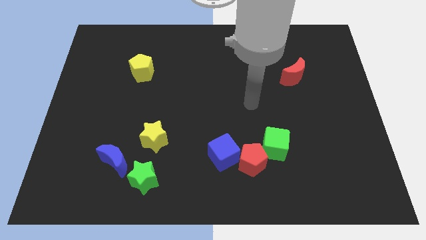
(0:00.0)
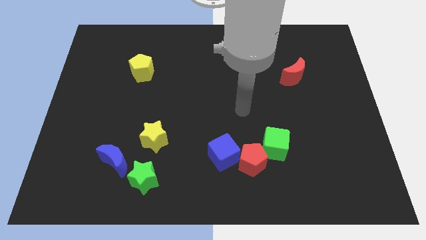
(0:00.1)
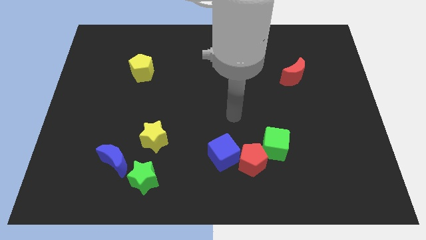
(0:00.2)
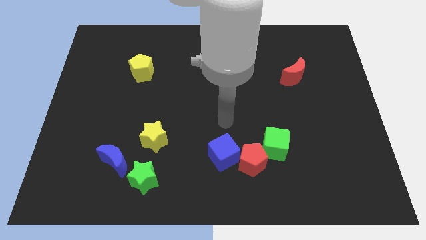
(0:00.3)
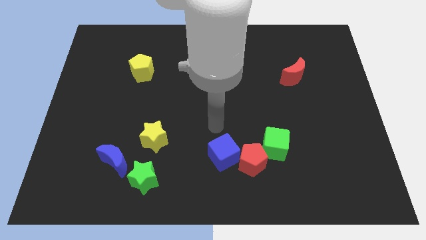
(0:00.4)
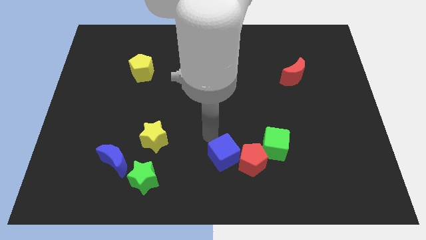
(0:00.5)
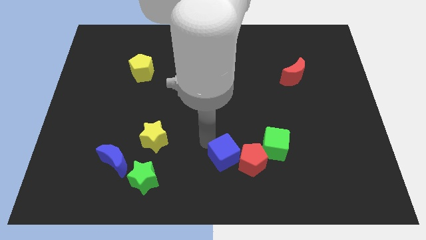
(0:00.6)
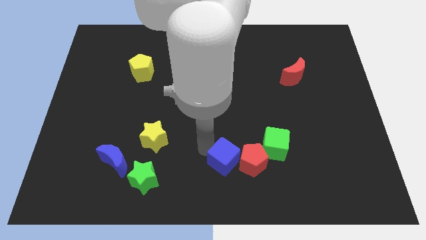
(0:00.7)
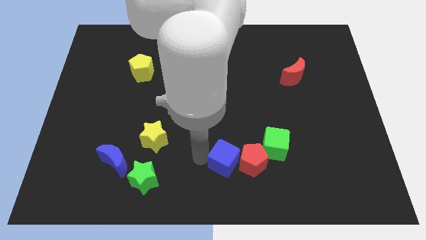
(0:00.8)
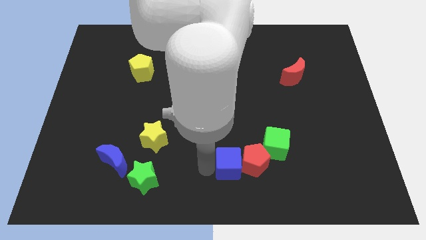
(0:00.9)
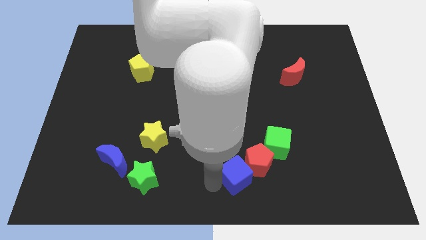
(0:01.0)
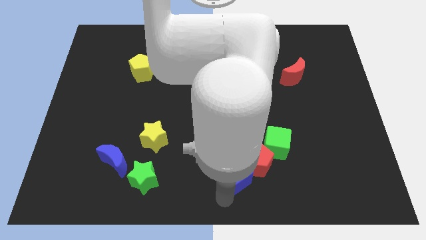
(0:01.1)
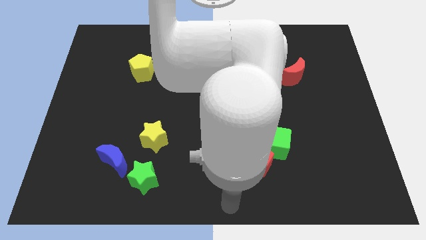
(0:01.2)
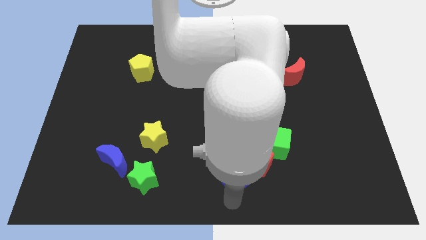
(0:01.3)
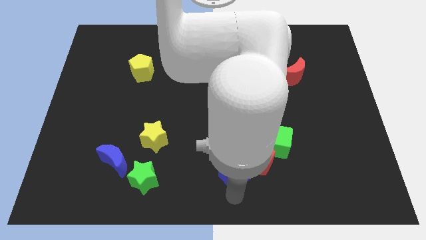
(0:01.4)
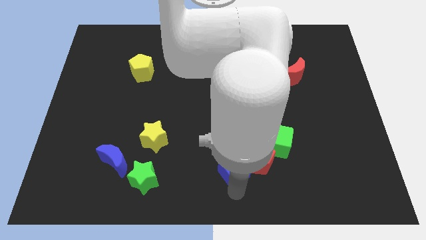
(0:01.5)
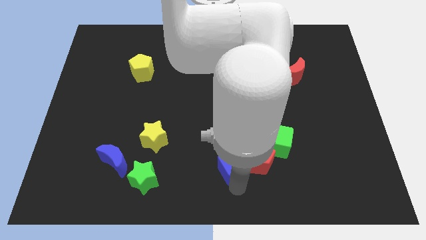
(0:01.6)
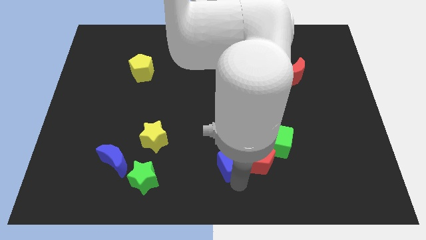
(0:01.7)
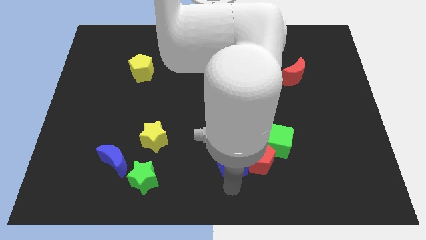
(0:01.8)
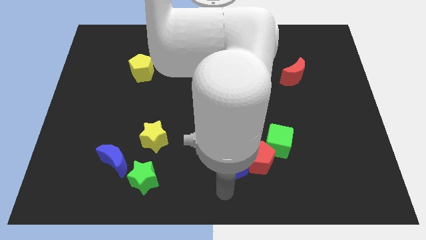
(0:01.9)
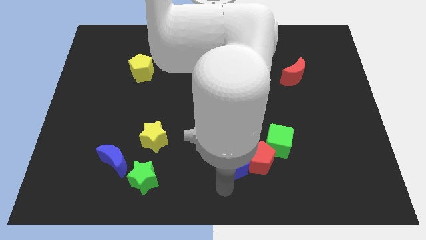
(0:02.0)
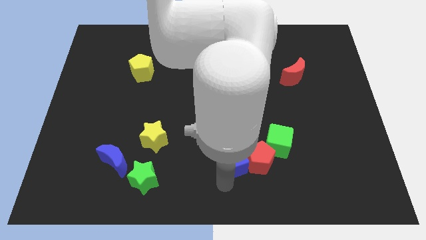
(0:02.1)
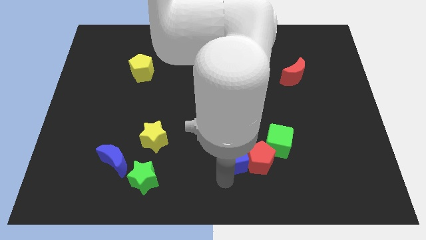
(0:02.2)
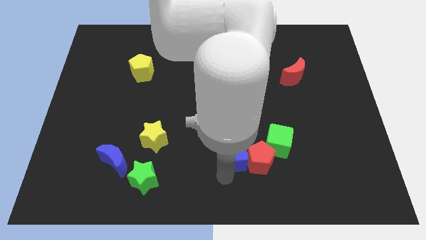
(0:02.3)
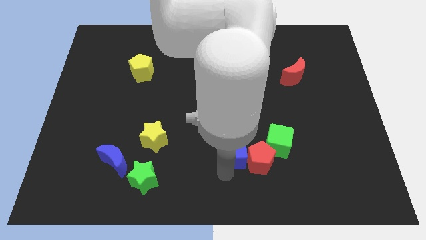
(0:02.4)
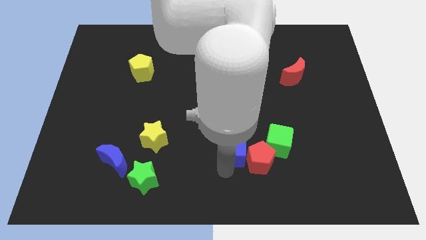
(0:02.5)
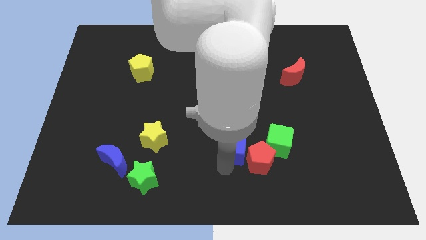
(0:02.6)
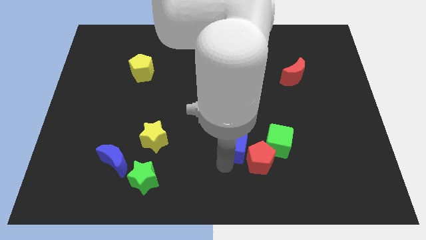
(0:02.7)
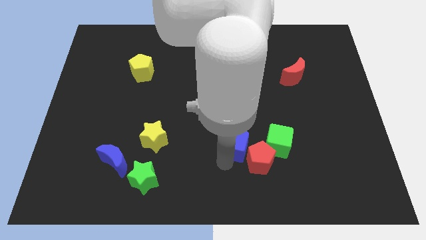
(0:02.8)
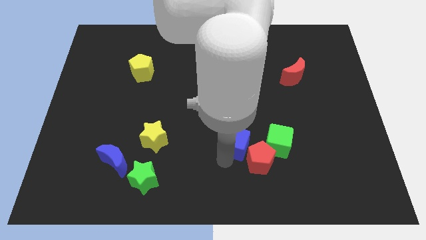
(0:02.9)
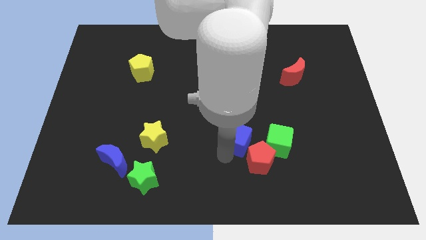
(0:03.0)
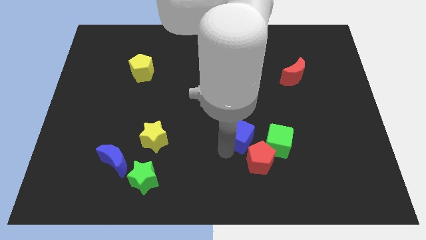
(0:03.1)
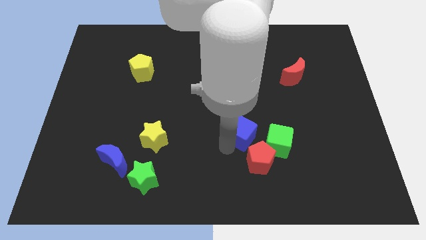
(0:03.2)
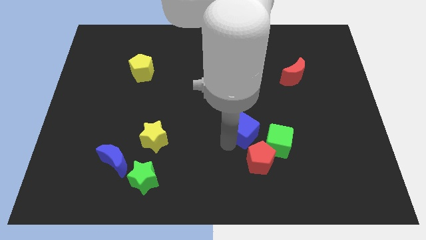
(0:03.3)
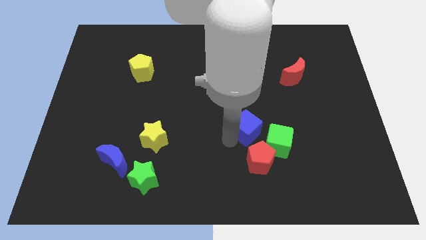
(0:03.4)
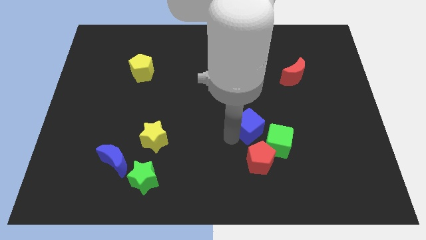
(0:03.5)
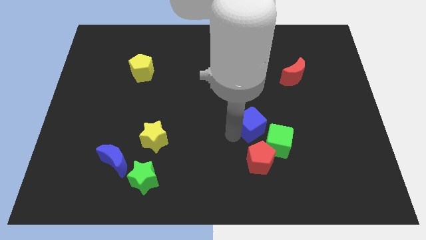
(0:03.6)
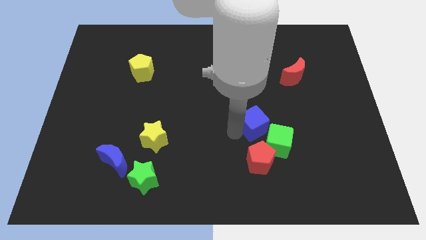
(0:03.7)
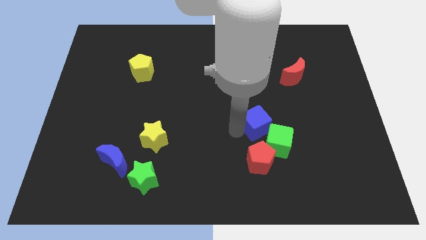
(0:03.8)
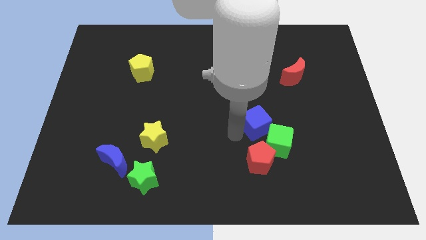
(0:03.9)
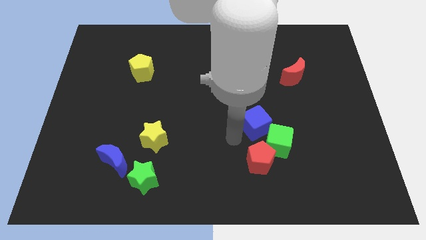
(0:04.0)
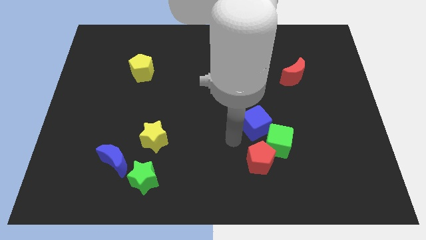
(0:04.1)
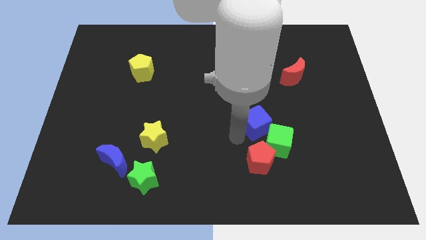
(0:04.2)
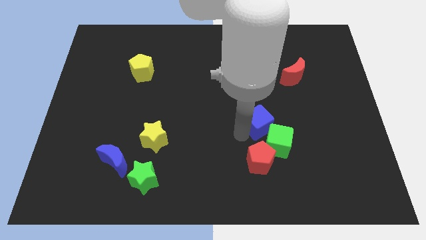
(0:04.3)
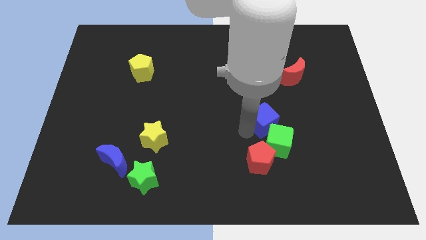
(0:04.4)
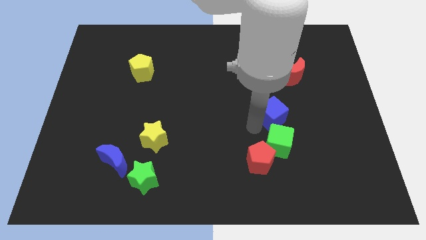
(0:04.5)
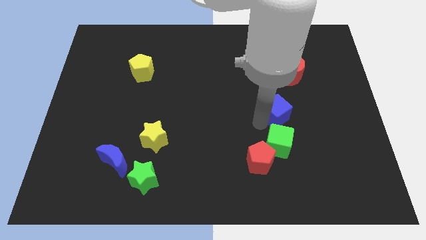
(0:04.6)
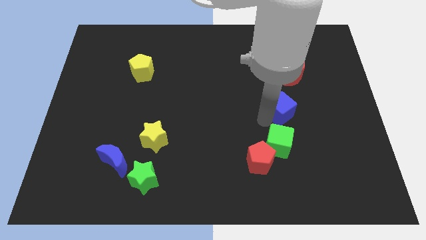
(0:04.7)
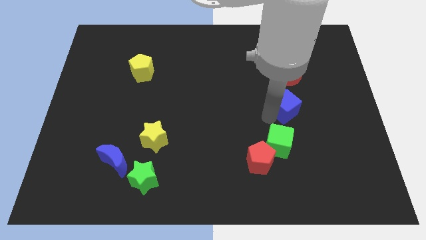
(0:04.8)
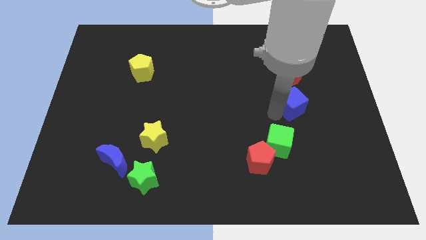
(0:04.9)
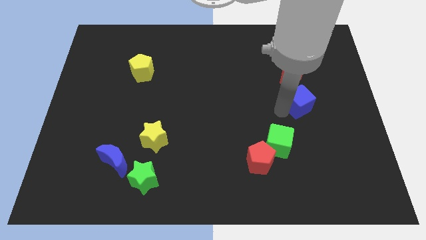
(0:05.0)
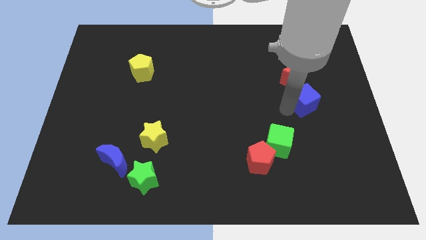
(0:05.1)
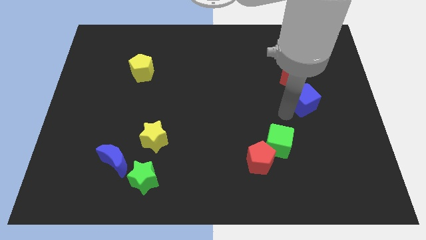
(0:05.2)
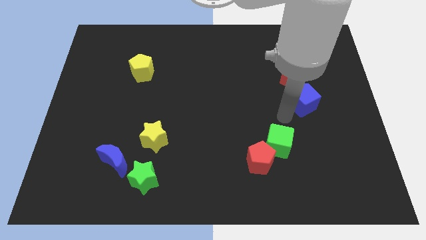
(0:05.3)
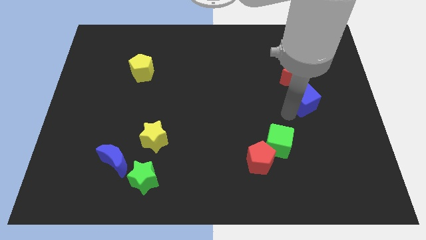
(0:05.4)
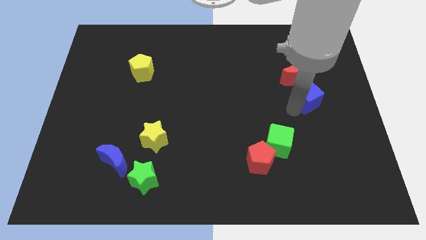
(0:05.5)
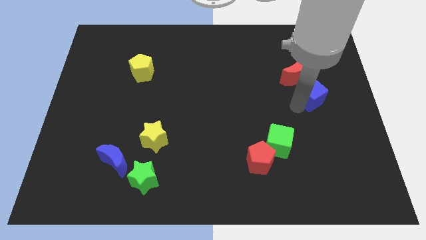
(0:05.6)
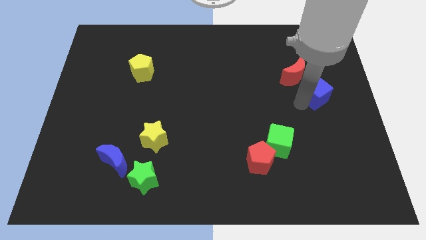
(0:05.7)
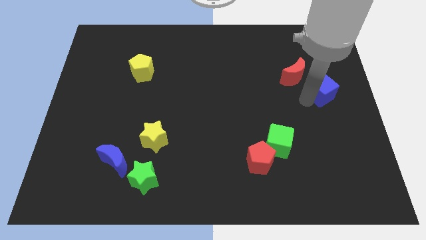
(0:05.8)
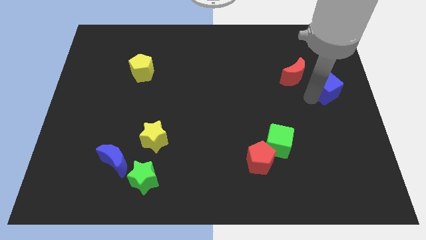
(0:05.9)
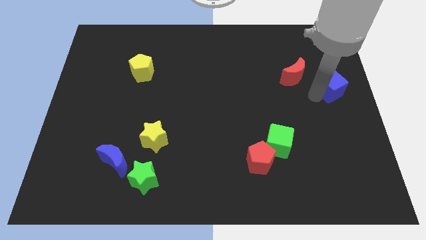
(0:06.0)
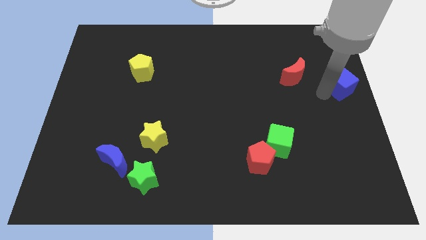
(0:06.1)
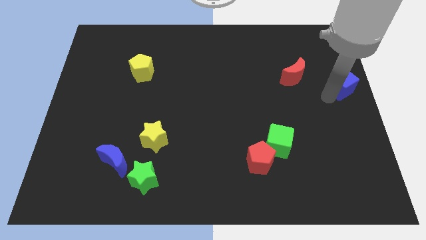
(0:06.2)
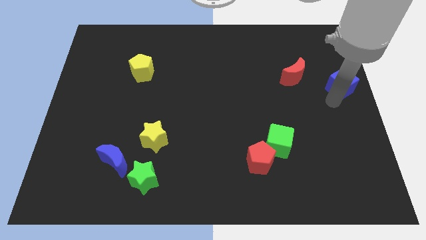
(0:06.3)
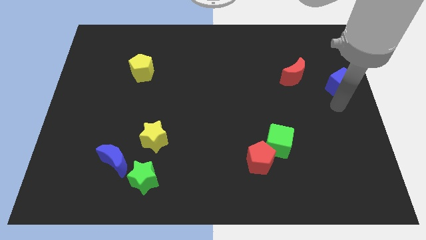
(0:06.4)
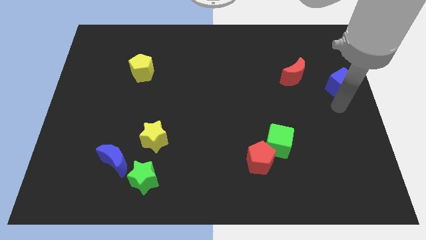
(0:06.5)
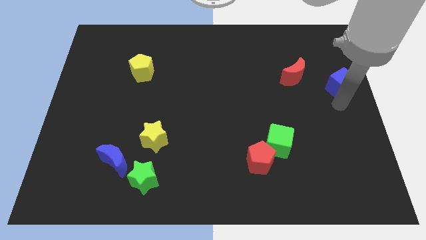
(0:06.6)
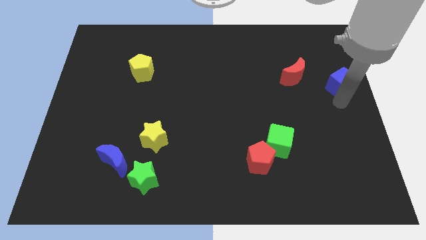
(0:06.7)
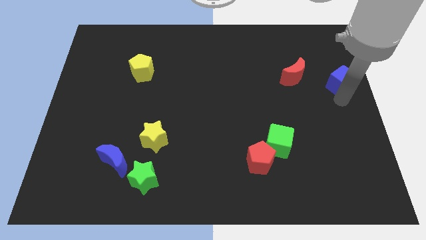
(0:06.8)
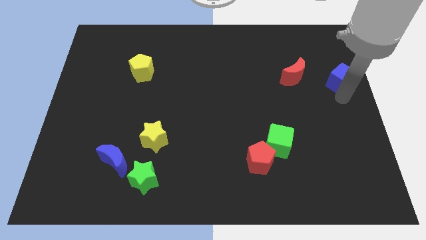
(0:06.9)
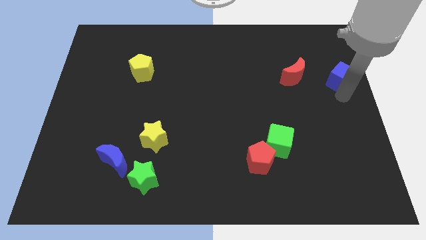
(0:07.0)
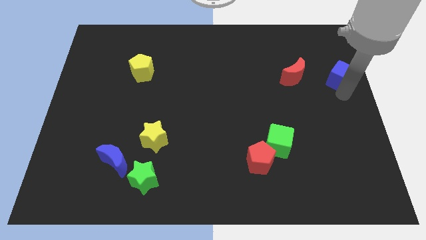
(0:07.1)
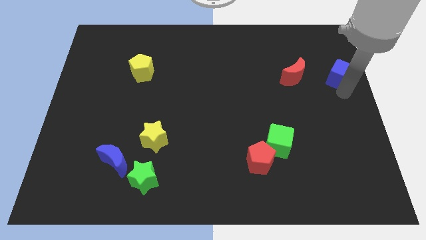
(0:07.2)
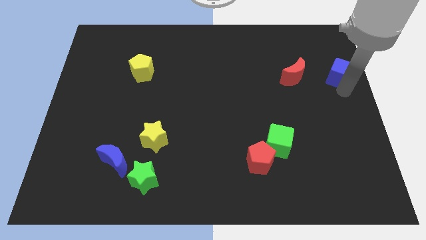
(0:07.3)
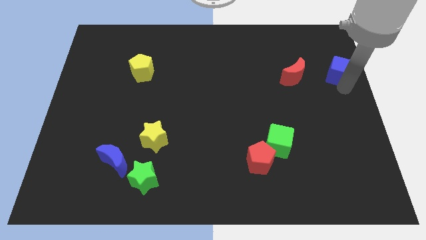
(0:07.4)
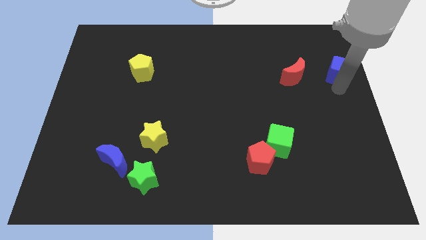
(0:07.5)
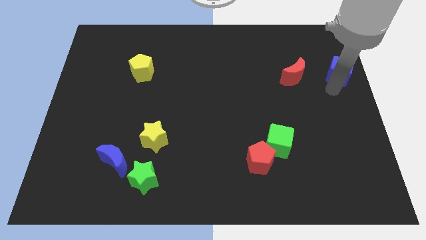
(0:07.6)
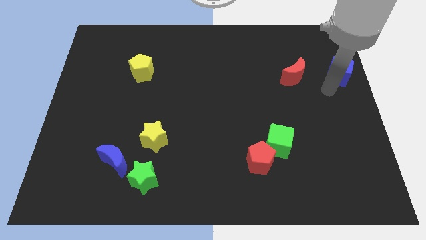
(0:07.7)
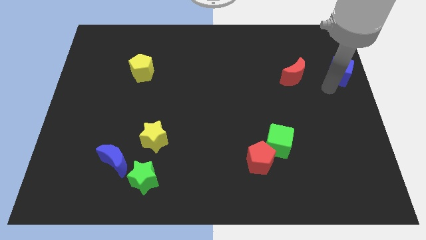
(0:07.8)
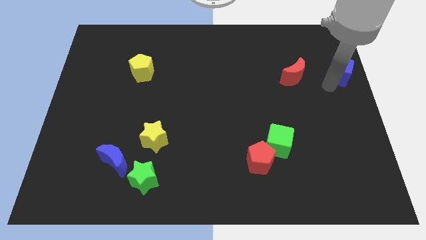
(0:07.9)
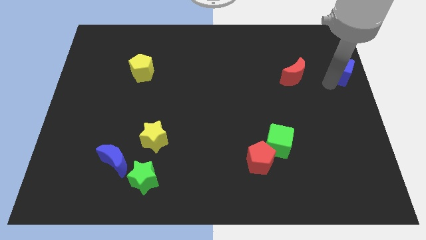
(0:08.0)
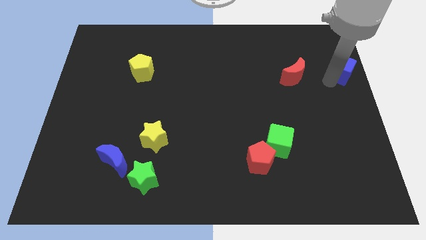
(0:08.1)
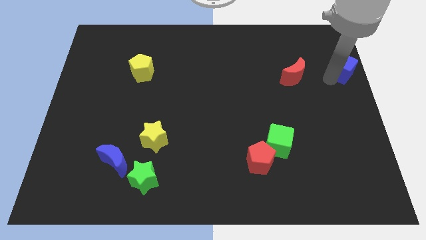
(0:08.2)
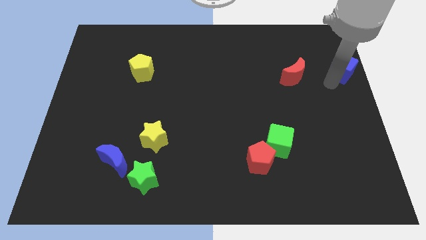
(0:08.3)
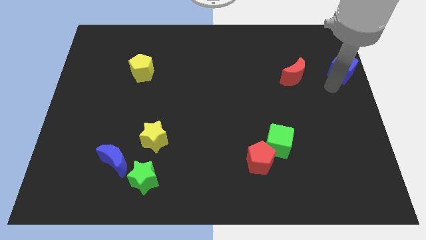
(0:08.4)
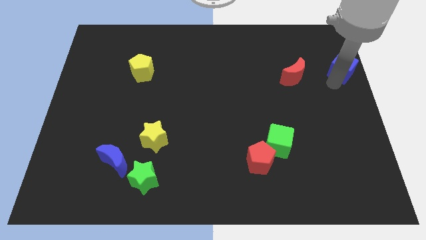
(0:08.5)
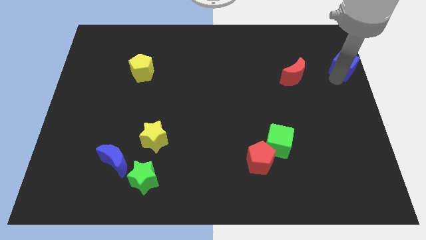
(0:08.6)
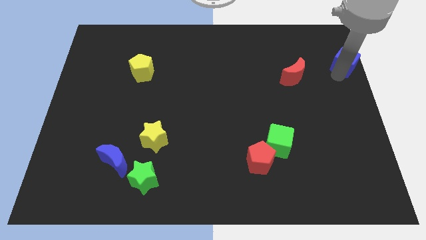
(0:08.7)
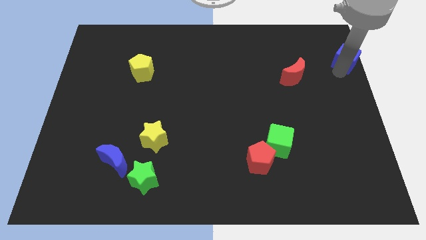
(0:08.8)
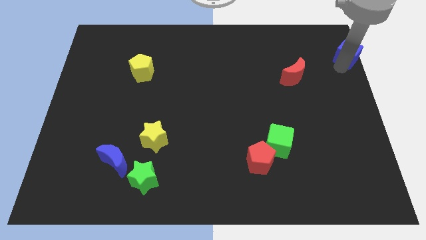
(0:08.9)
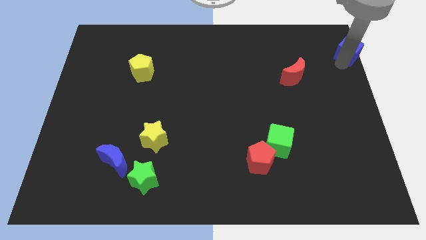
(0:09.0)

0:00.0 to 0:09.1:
put the blue cube to the top right
